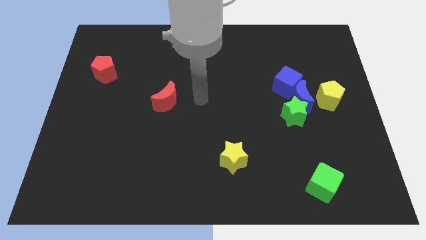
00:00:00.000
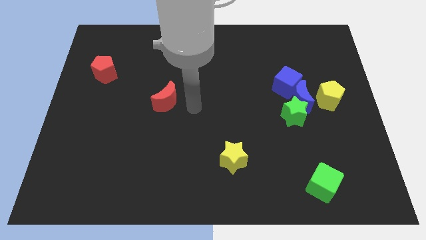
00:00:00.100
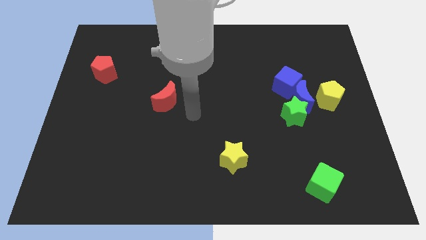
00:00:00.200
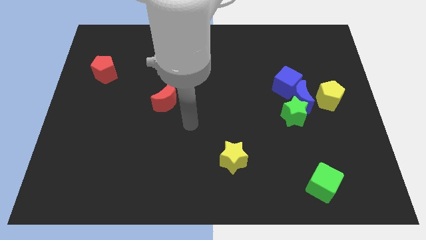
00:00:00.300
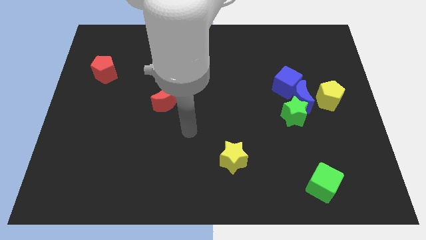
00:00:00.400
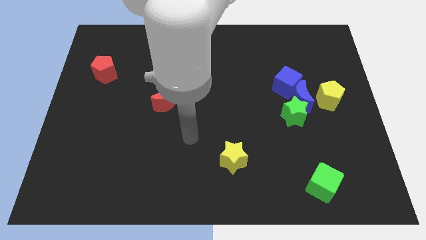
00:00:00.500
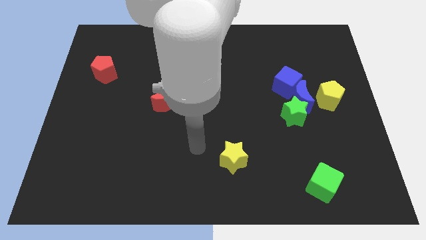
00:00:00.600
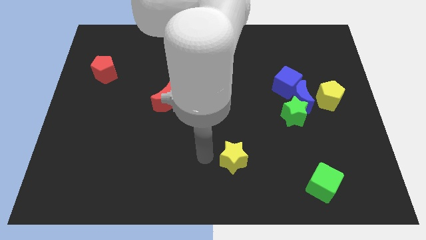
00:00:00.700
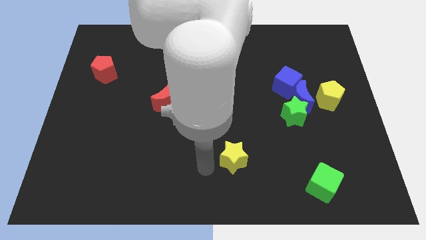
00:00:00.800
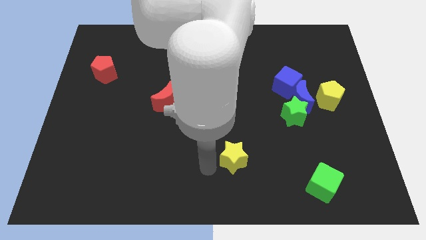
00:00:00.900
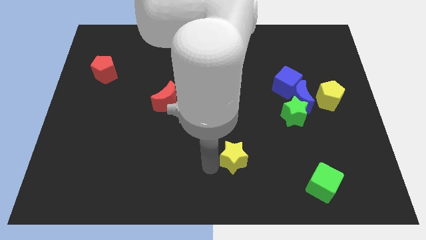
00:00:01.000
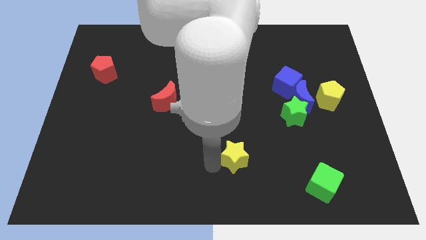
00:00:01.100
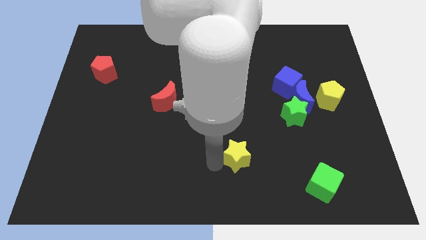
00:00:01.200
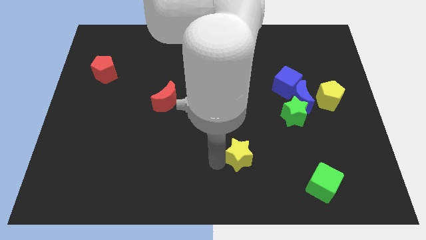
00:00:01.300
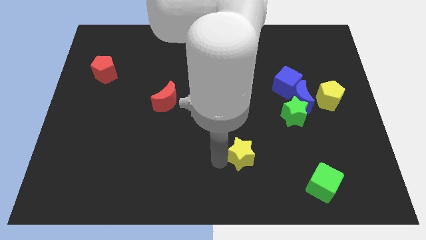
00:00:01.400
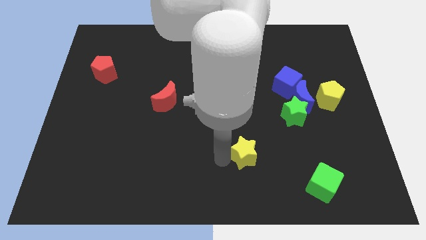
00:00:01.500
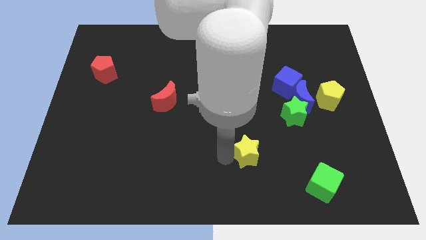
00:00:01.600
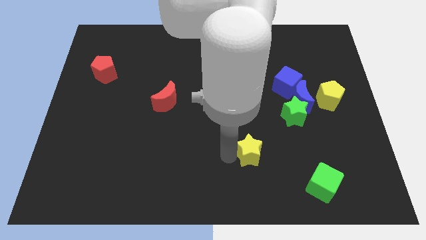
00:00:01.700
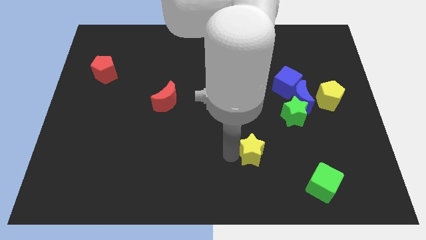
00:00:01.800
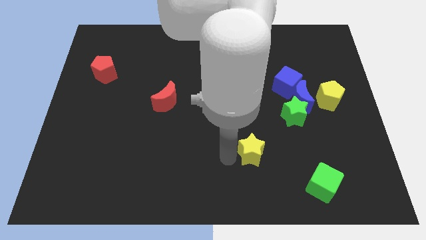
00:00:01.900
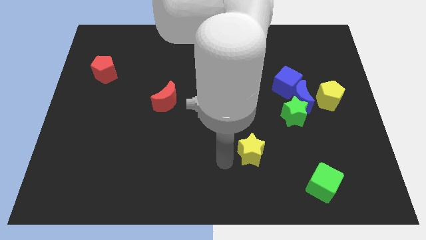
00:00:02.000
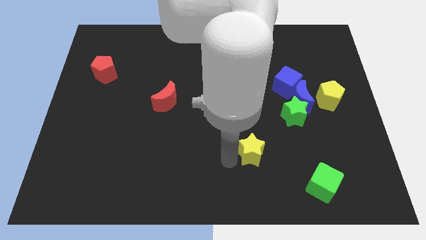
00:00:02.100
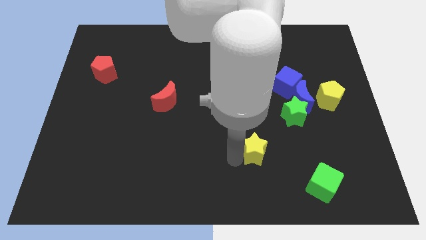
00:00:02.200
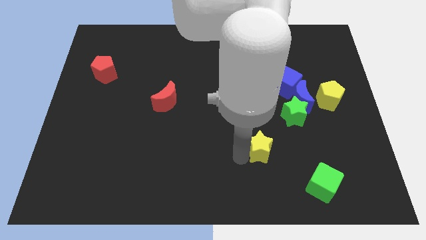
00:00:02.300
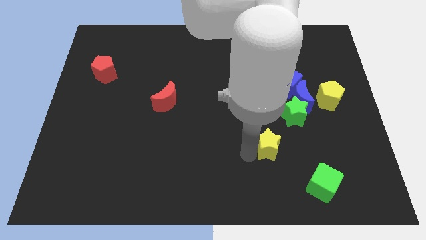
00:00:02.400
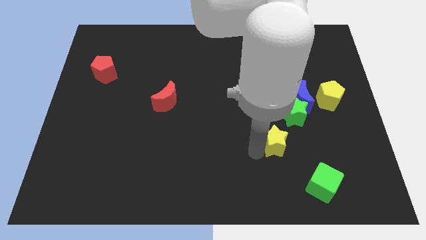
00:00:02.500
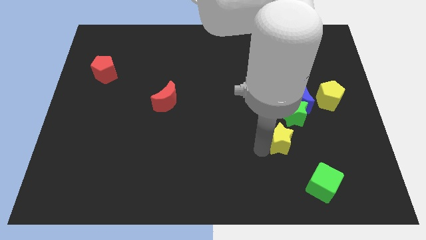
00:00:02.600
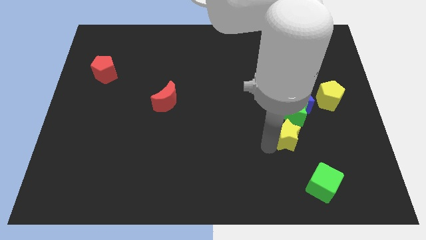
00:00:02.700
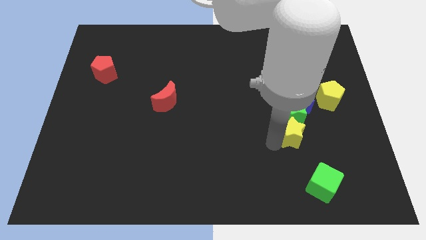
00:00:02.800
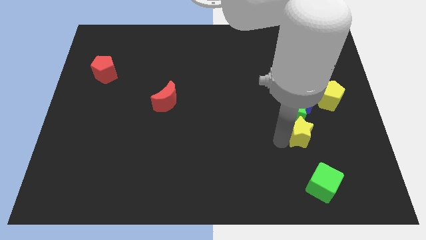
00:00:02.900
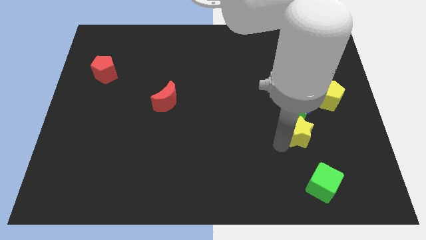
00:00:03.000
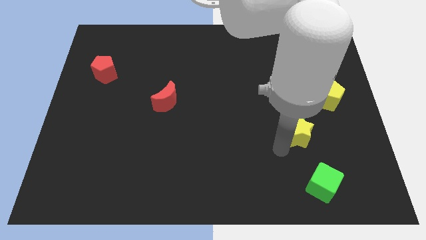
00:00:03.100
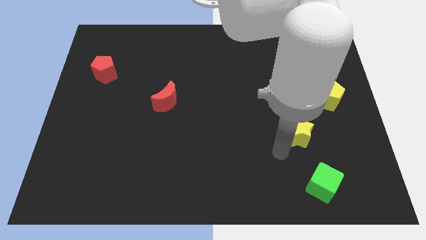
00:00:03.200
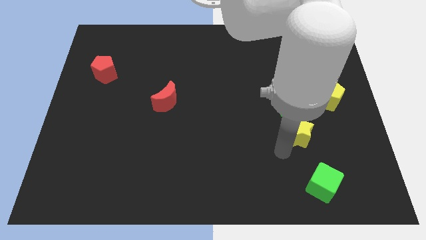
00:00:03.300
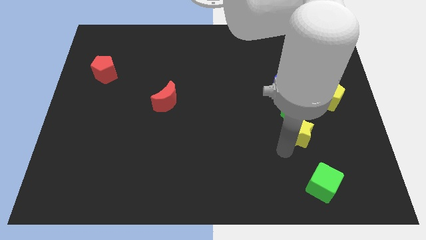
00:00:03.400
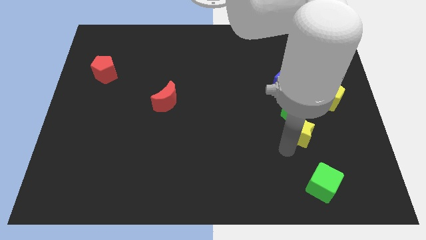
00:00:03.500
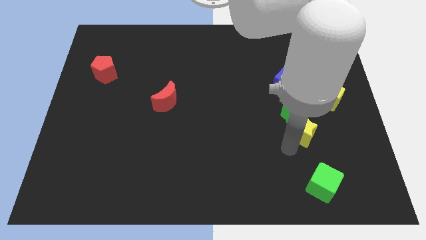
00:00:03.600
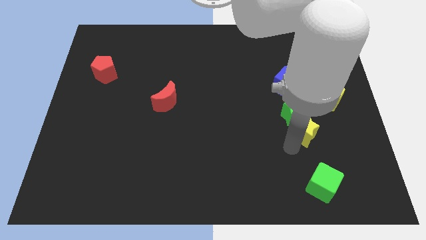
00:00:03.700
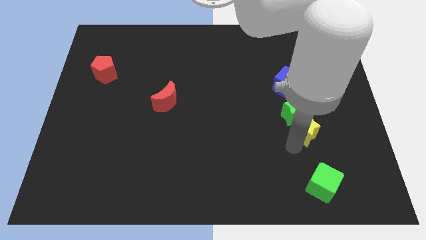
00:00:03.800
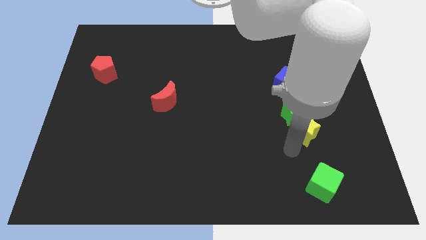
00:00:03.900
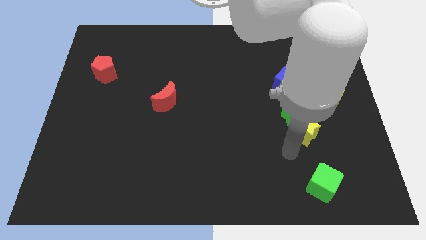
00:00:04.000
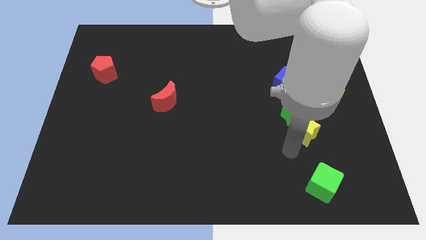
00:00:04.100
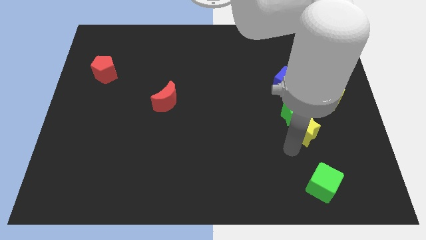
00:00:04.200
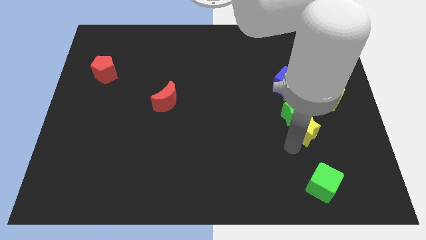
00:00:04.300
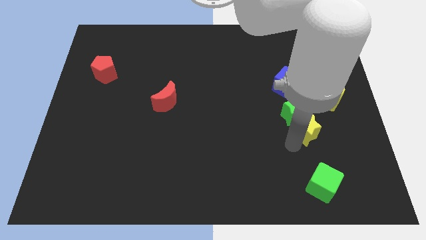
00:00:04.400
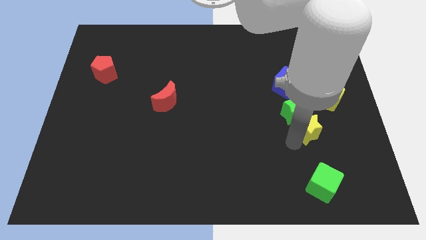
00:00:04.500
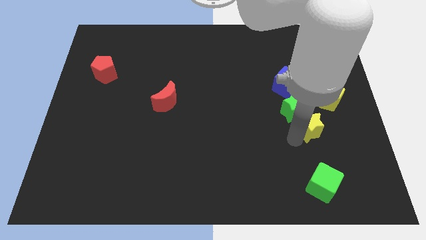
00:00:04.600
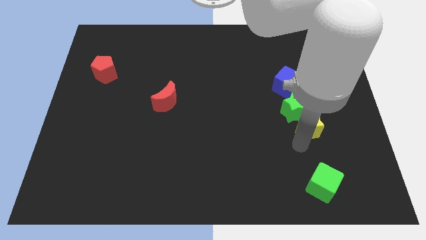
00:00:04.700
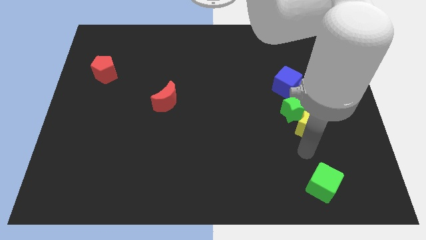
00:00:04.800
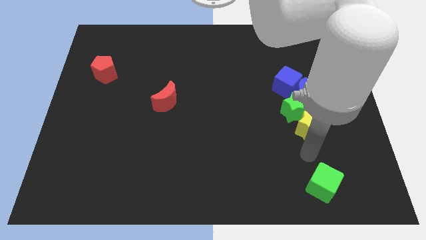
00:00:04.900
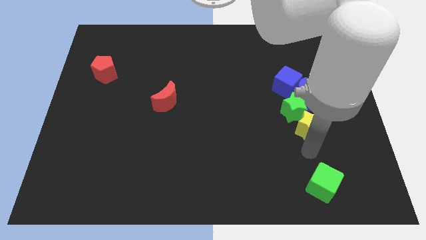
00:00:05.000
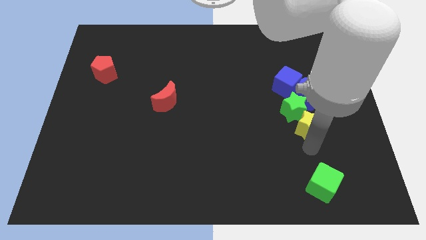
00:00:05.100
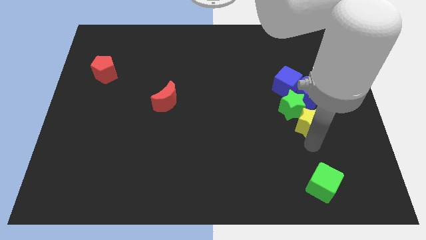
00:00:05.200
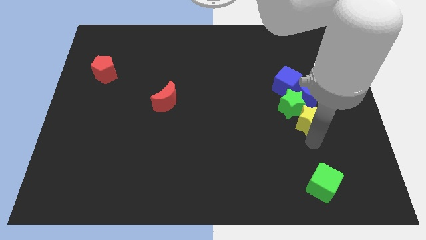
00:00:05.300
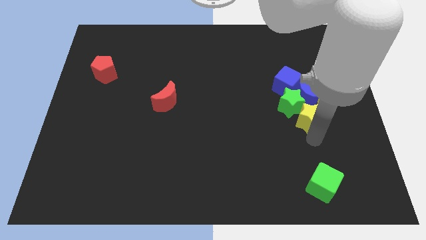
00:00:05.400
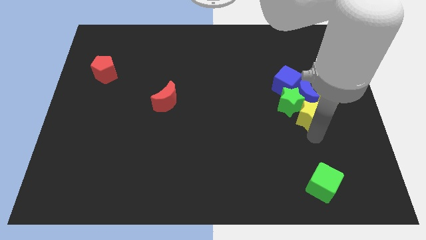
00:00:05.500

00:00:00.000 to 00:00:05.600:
push the yellow star diagonally down and to the right of the blue cube

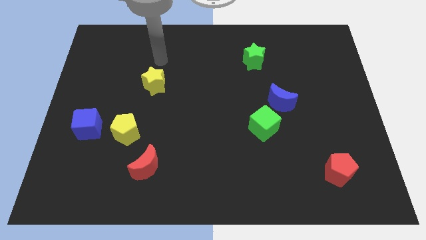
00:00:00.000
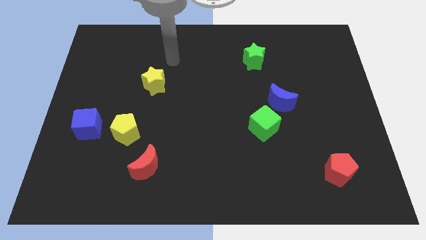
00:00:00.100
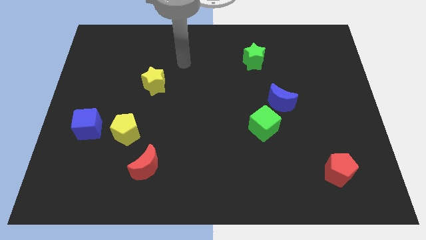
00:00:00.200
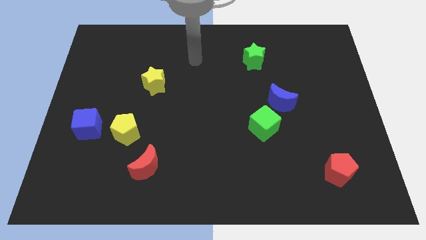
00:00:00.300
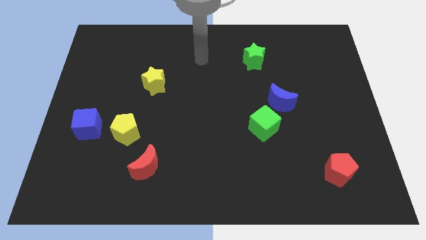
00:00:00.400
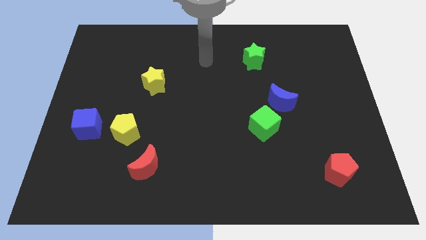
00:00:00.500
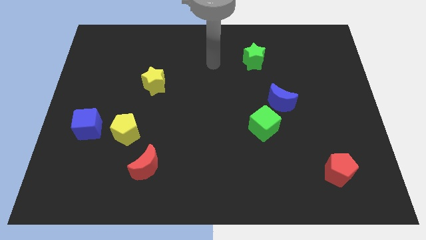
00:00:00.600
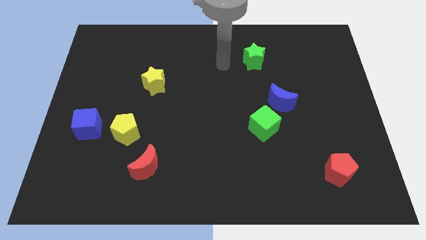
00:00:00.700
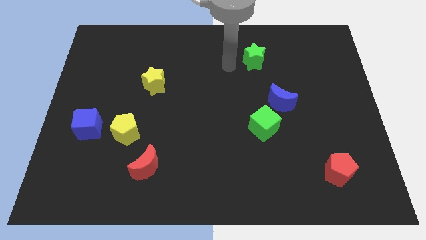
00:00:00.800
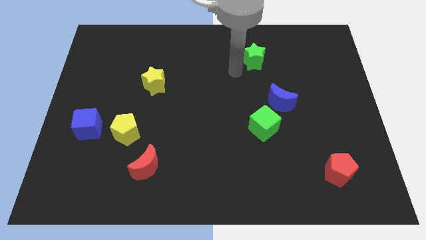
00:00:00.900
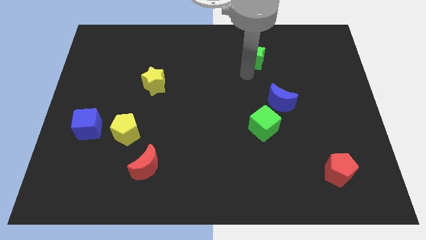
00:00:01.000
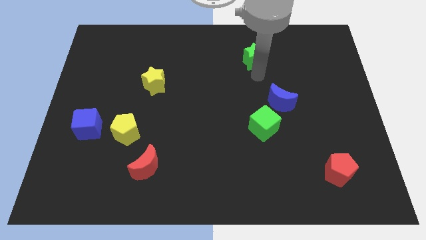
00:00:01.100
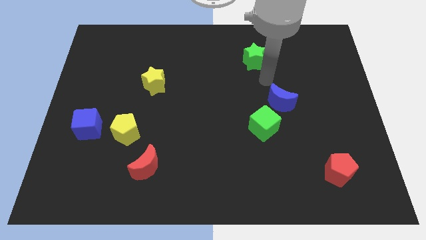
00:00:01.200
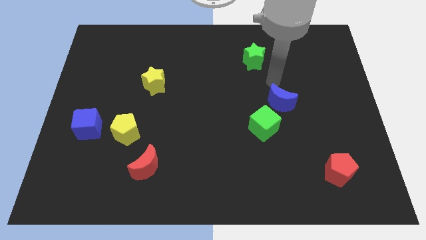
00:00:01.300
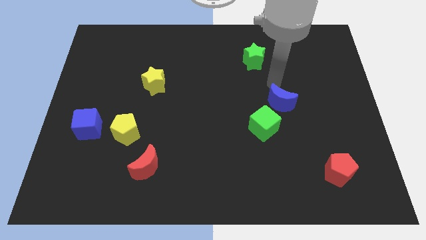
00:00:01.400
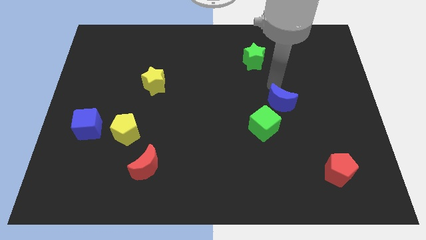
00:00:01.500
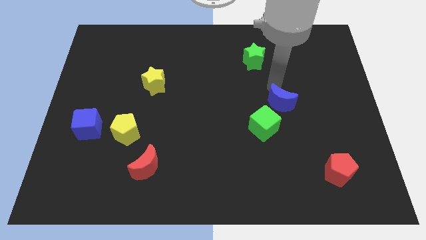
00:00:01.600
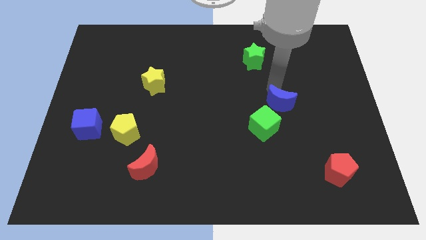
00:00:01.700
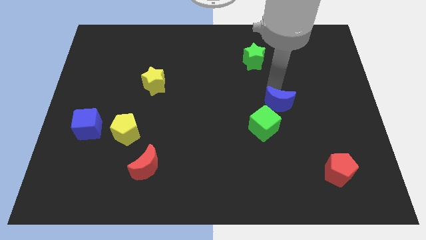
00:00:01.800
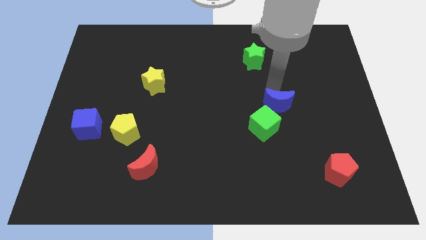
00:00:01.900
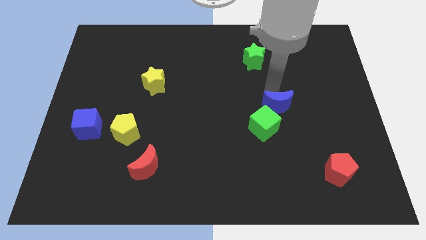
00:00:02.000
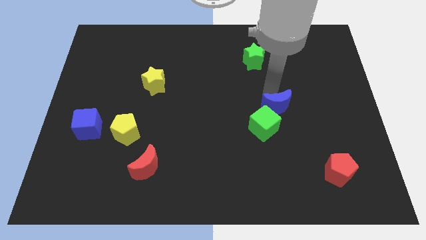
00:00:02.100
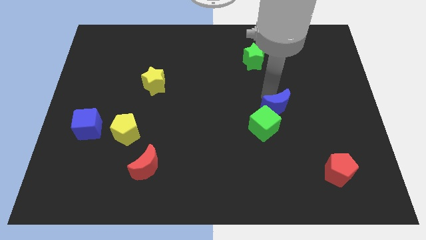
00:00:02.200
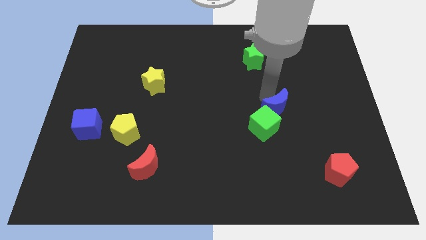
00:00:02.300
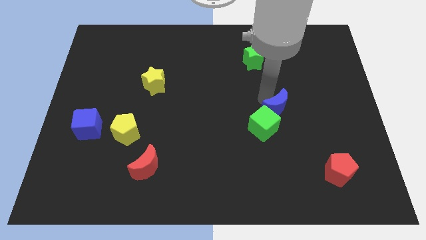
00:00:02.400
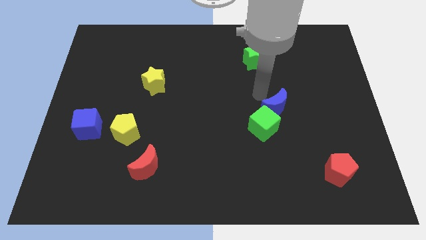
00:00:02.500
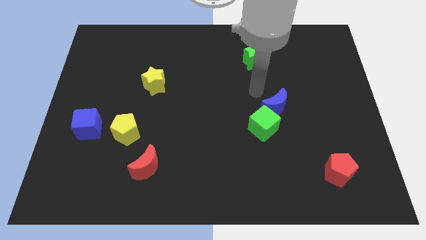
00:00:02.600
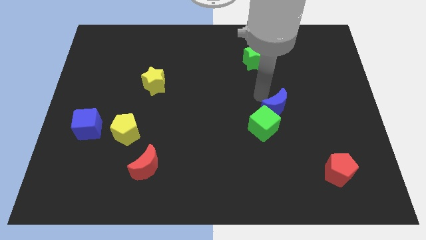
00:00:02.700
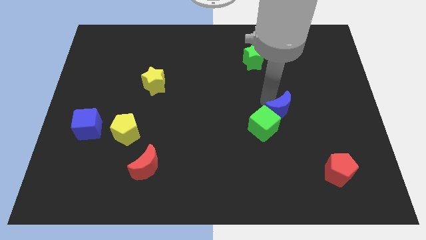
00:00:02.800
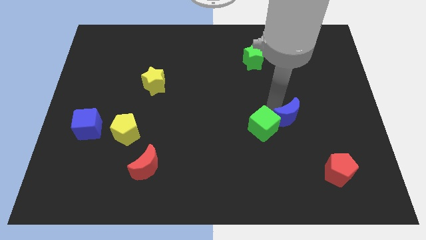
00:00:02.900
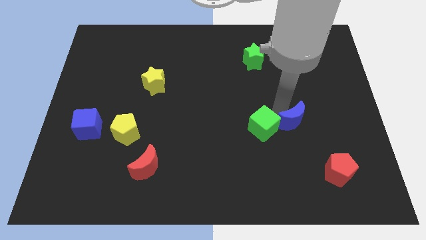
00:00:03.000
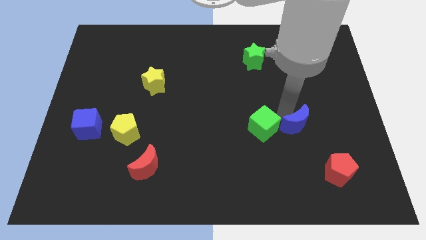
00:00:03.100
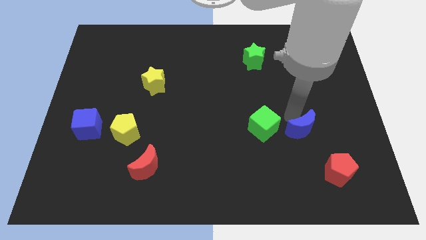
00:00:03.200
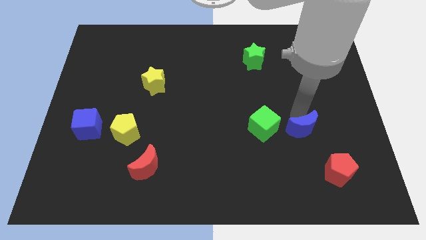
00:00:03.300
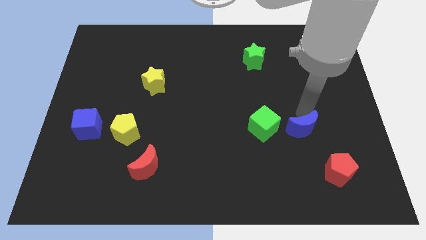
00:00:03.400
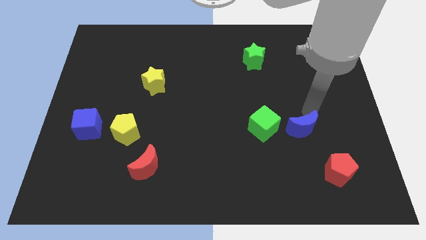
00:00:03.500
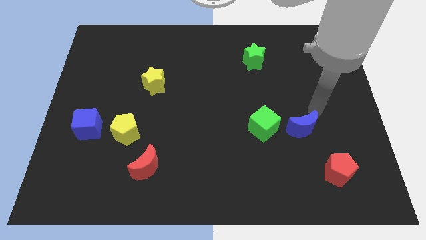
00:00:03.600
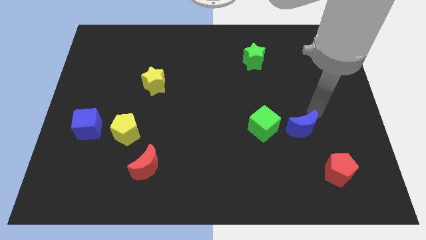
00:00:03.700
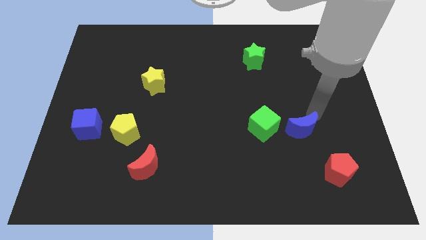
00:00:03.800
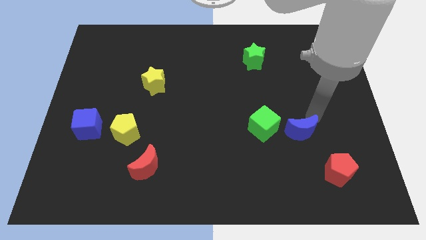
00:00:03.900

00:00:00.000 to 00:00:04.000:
slide the blue moon diagonally down and to the right of the green cube
